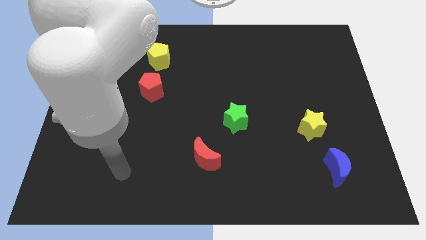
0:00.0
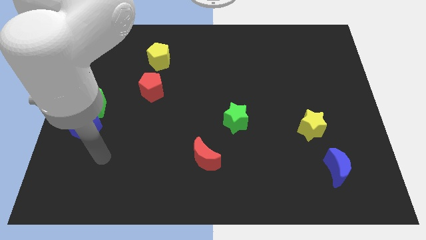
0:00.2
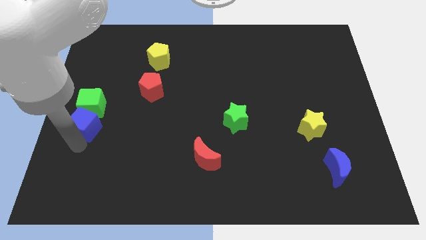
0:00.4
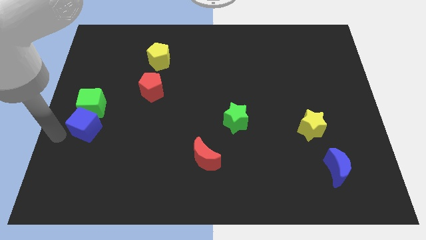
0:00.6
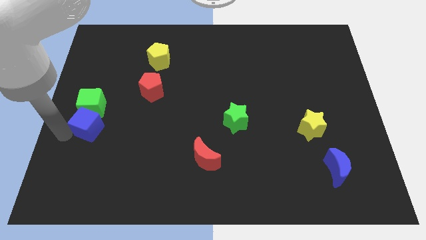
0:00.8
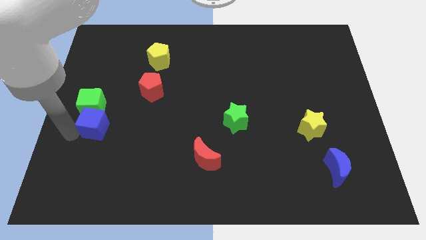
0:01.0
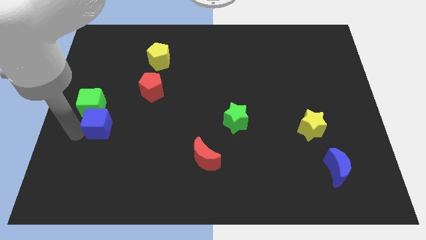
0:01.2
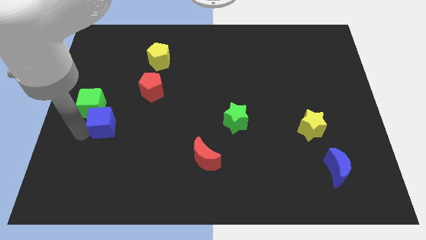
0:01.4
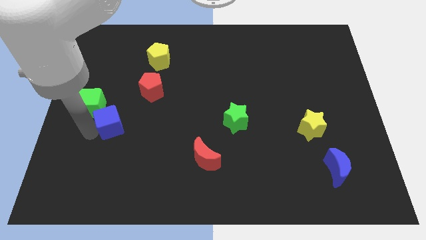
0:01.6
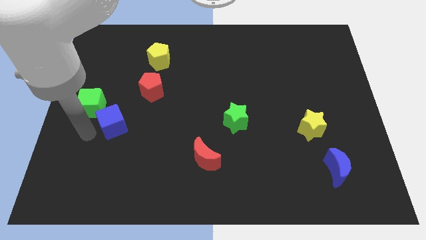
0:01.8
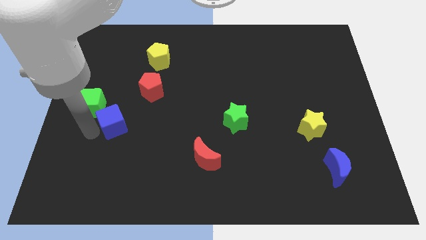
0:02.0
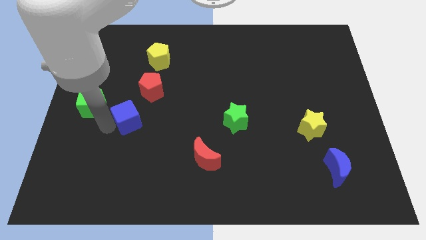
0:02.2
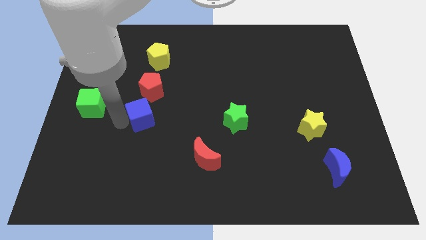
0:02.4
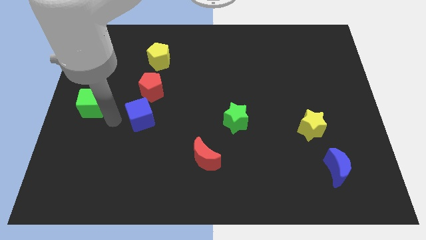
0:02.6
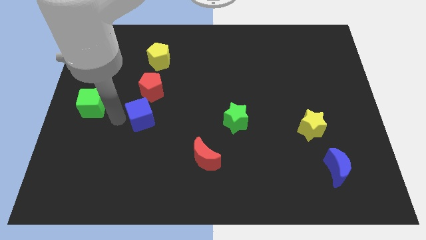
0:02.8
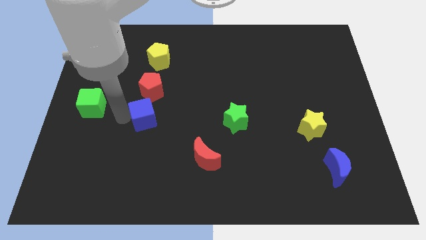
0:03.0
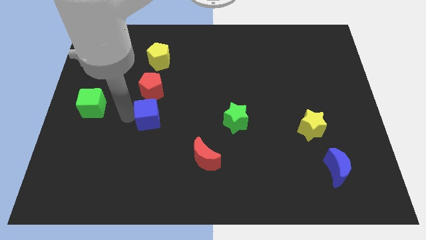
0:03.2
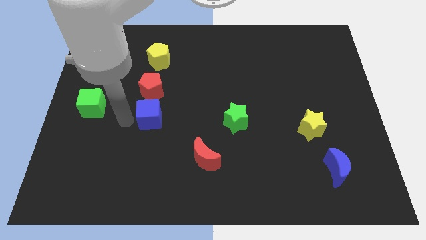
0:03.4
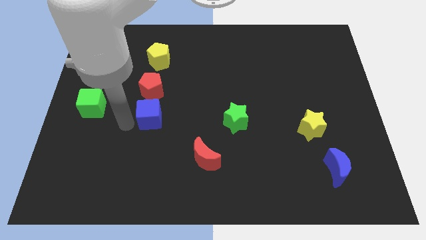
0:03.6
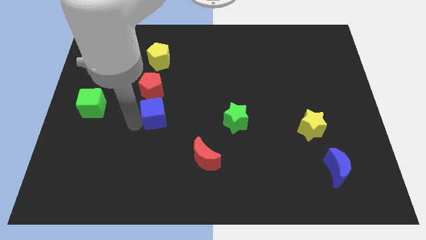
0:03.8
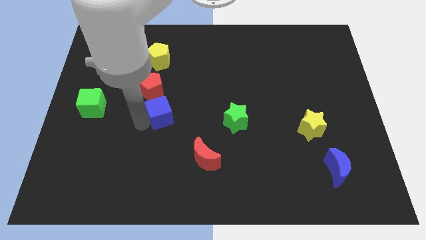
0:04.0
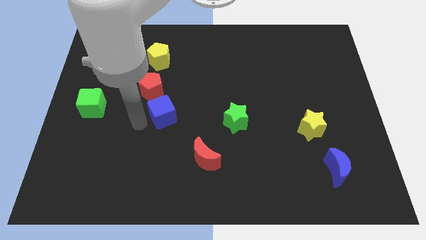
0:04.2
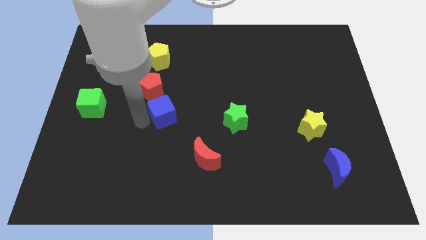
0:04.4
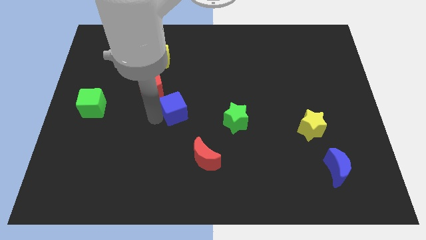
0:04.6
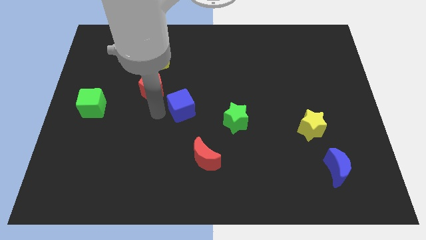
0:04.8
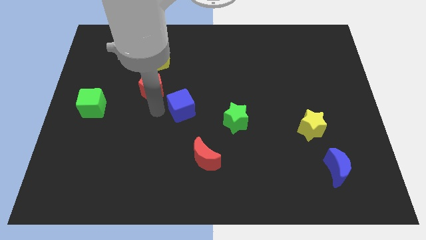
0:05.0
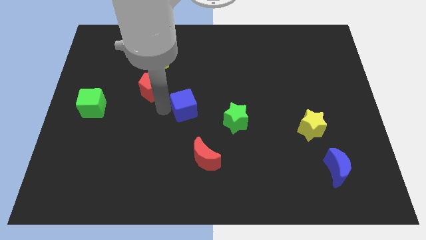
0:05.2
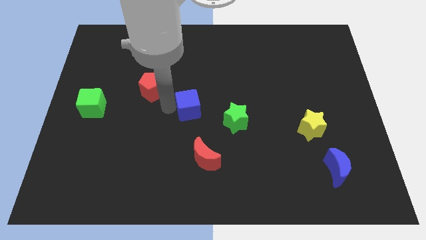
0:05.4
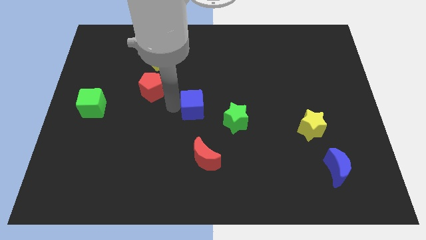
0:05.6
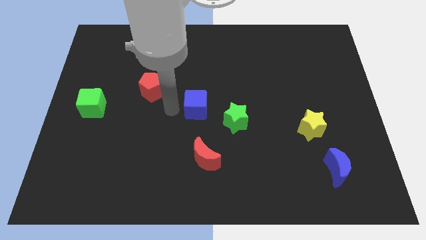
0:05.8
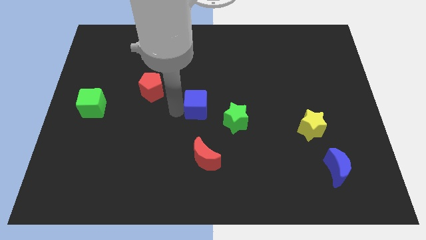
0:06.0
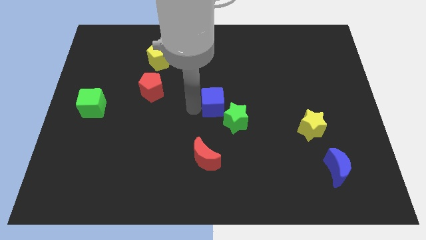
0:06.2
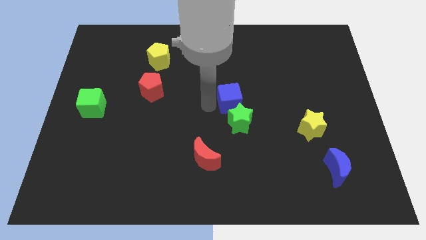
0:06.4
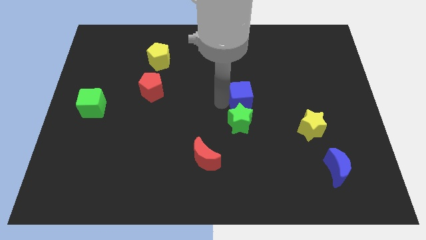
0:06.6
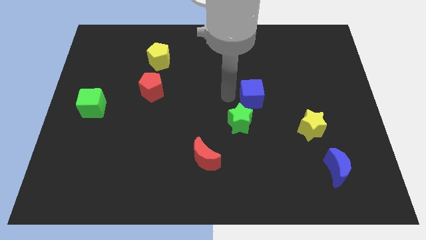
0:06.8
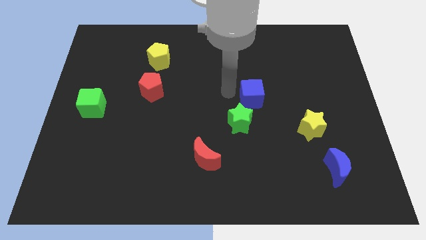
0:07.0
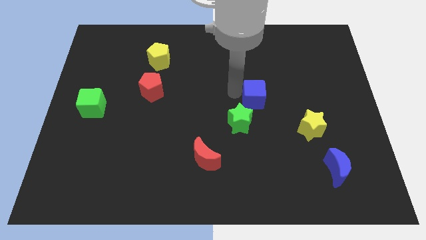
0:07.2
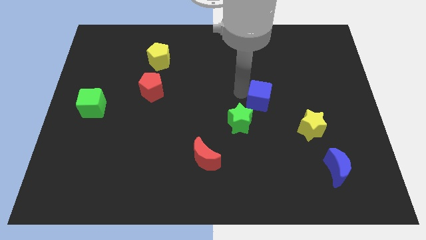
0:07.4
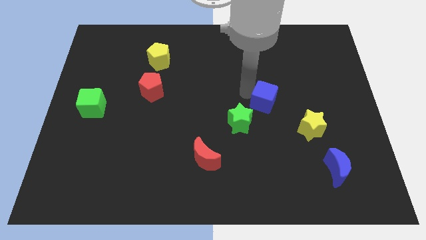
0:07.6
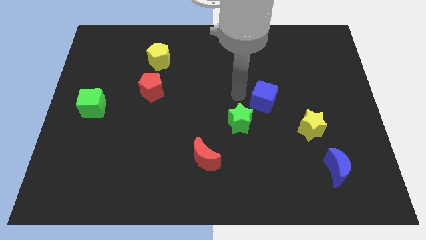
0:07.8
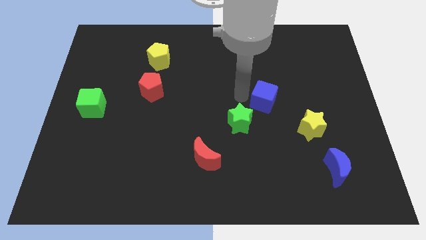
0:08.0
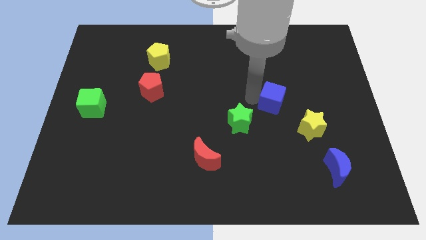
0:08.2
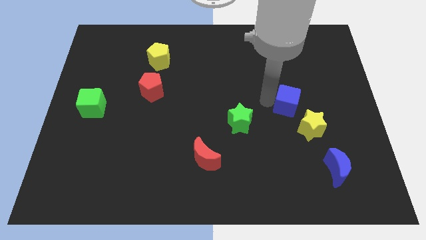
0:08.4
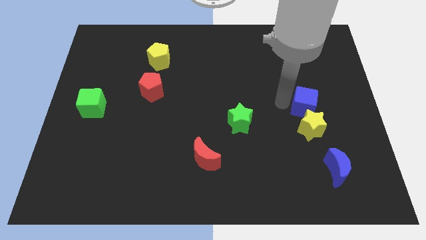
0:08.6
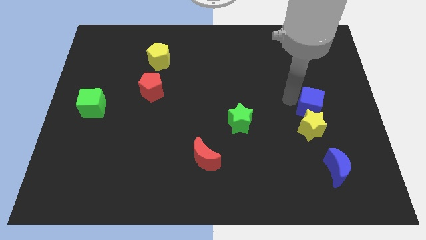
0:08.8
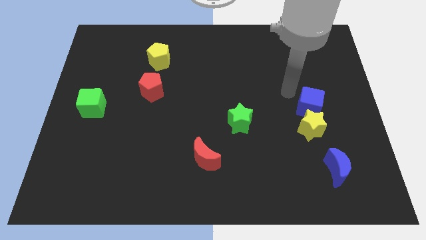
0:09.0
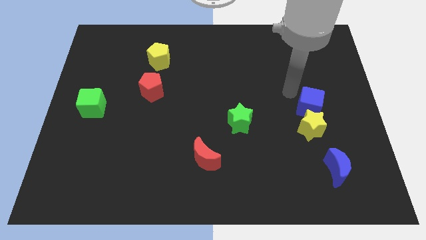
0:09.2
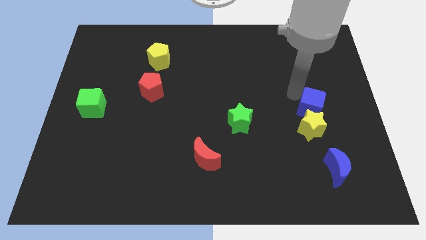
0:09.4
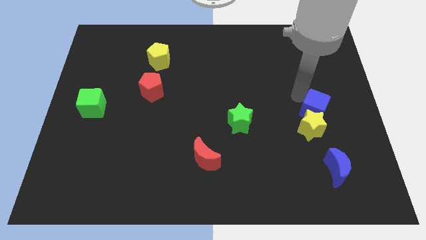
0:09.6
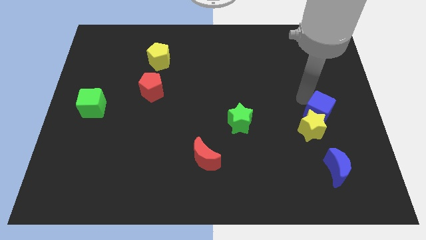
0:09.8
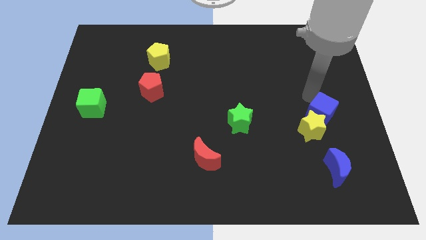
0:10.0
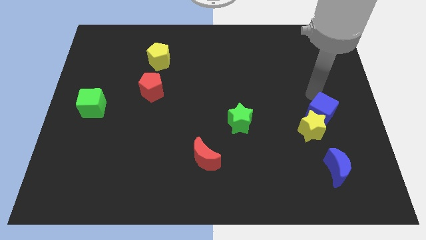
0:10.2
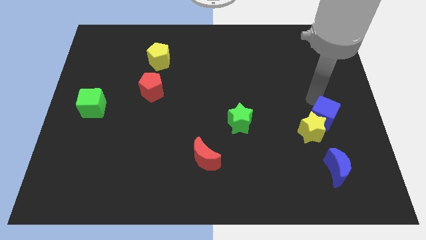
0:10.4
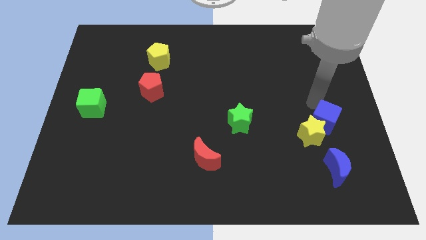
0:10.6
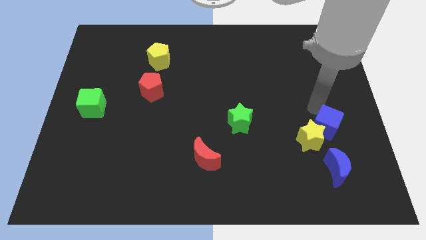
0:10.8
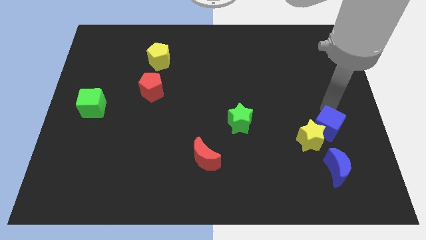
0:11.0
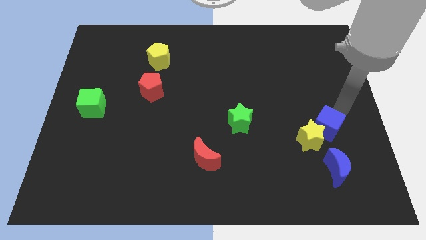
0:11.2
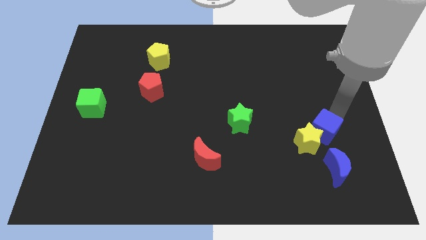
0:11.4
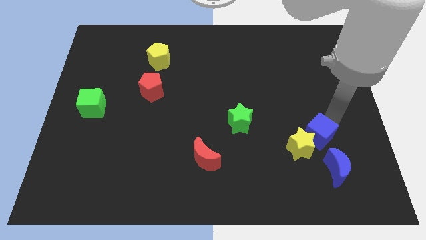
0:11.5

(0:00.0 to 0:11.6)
move the blue cube to the top left of the blue moon

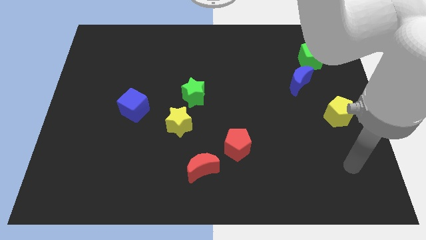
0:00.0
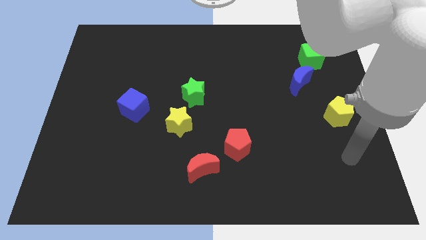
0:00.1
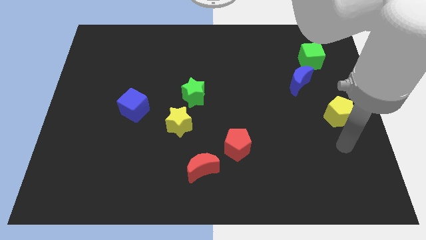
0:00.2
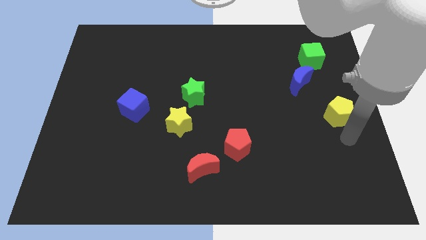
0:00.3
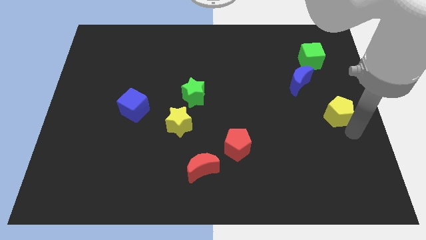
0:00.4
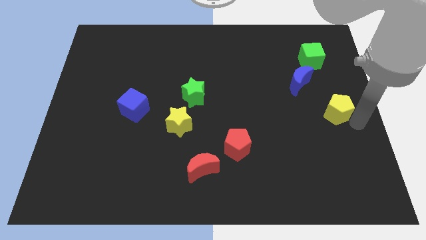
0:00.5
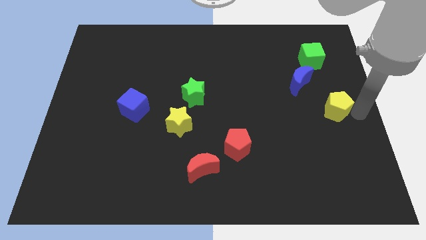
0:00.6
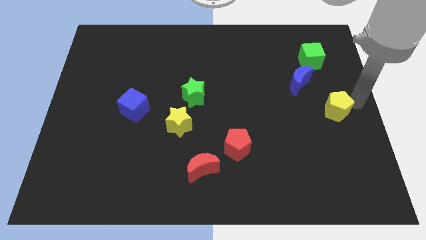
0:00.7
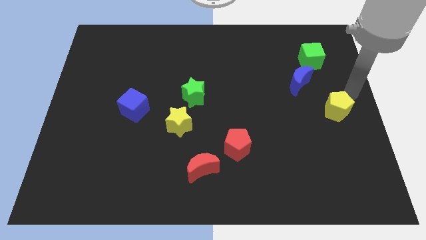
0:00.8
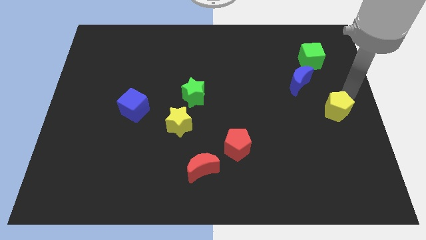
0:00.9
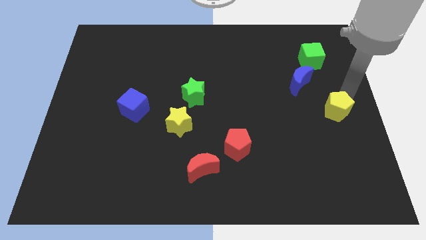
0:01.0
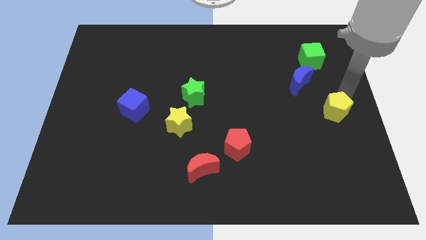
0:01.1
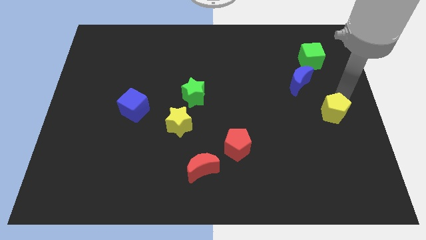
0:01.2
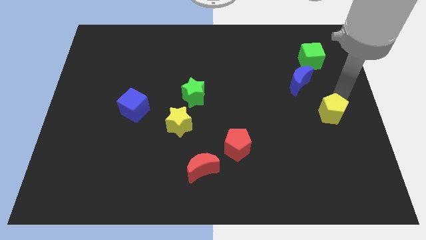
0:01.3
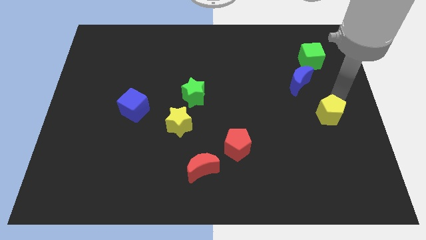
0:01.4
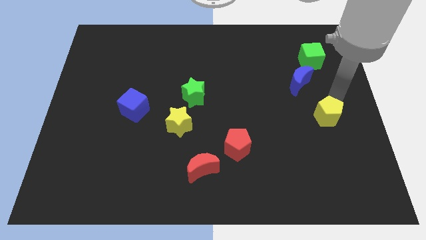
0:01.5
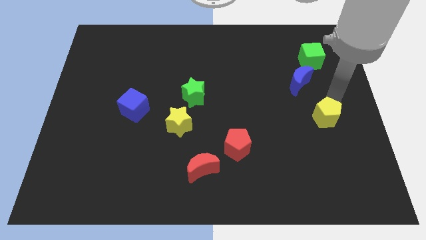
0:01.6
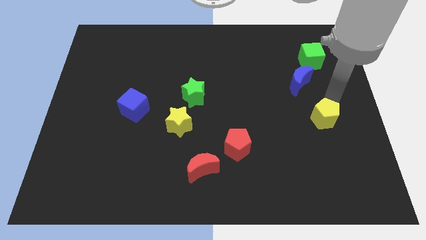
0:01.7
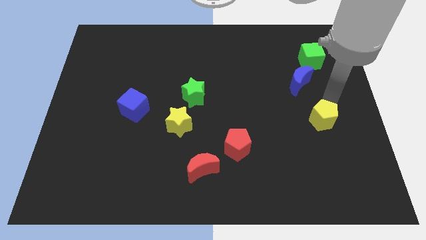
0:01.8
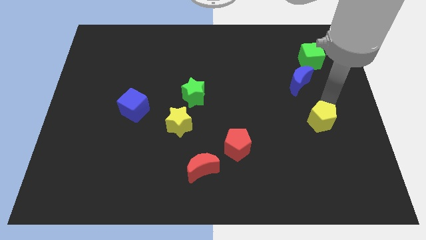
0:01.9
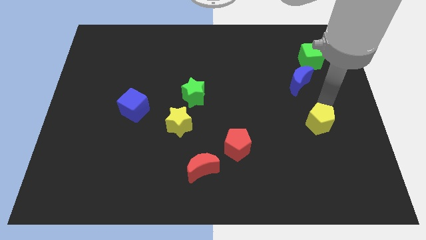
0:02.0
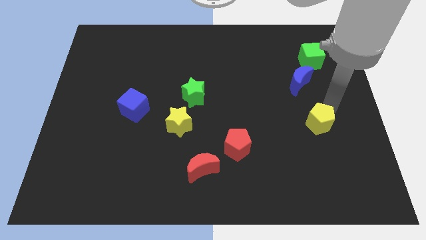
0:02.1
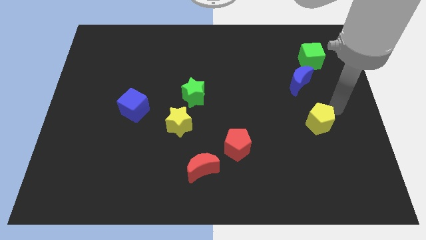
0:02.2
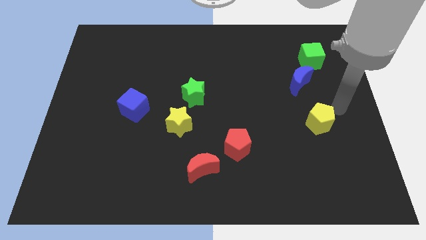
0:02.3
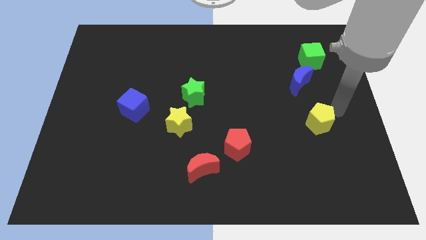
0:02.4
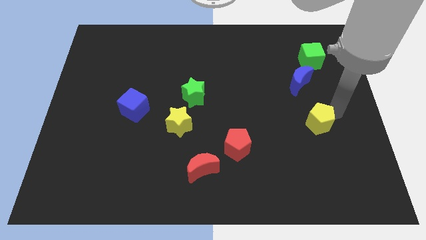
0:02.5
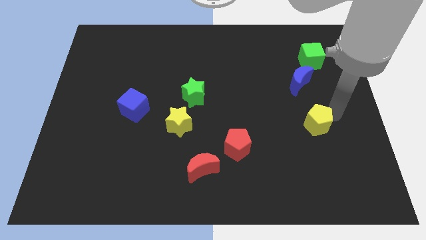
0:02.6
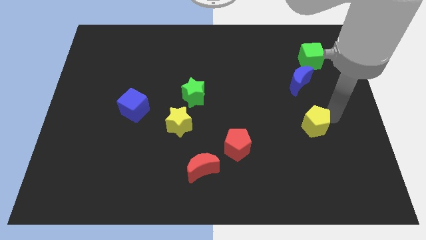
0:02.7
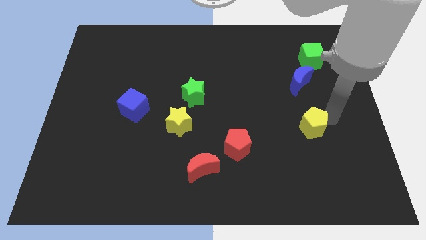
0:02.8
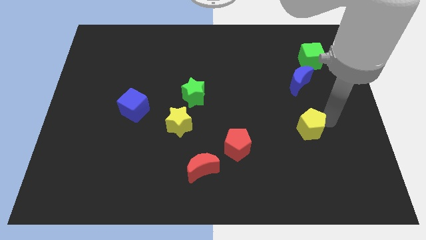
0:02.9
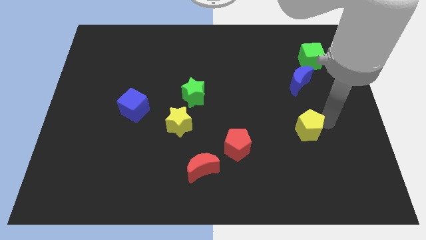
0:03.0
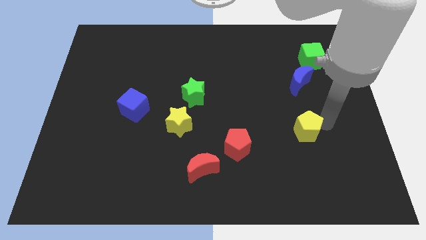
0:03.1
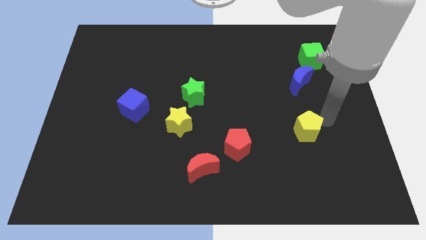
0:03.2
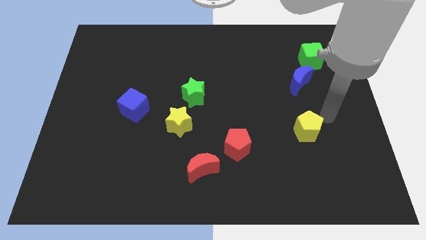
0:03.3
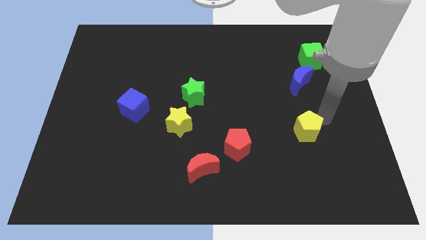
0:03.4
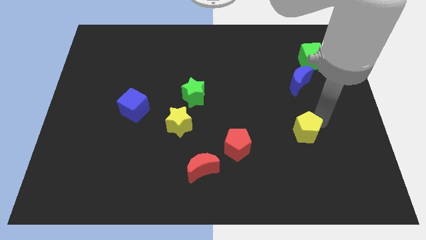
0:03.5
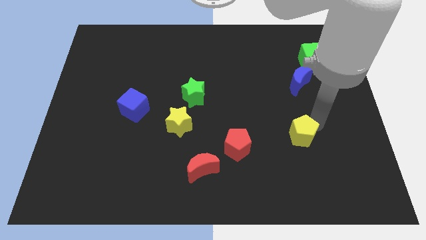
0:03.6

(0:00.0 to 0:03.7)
move the yellow pentagon right of the red pentagon
